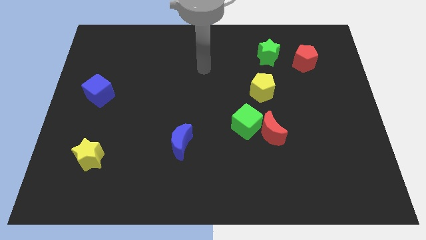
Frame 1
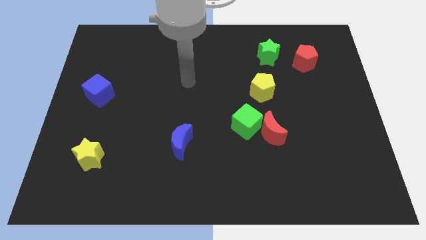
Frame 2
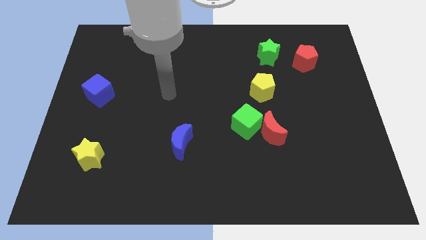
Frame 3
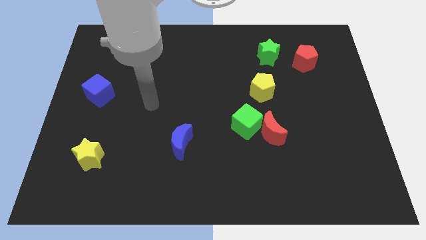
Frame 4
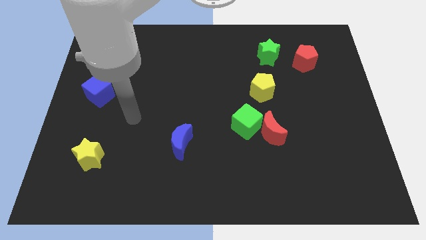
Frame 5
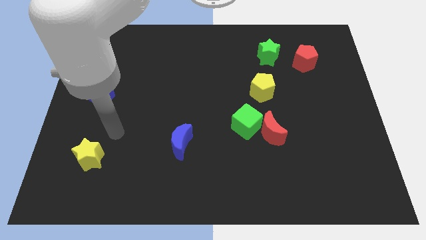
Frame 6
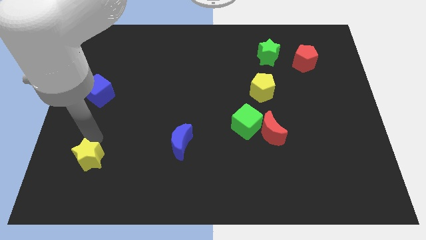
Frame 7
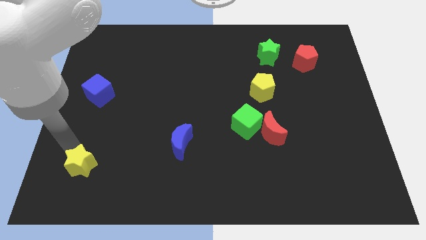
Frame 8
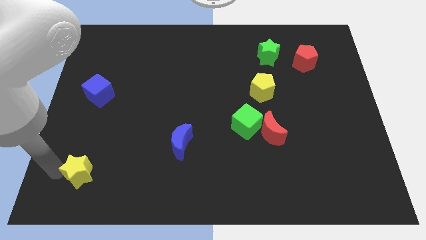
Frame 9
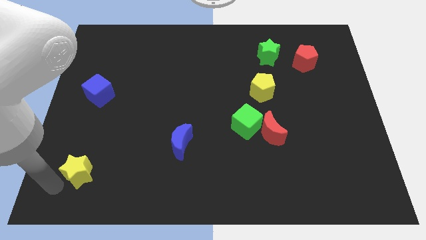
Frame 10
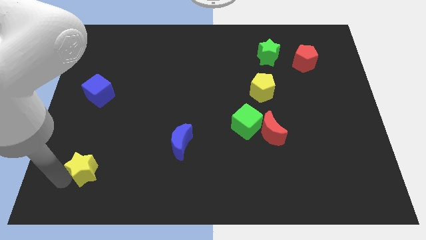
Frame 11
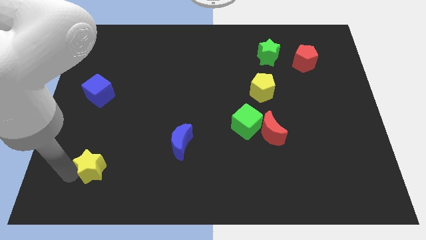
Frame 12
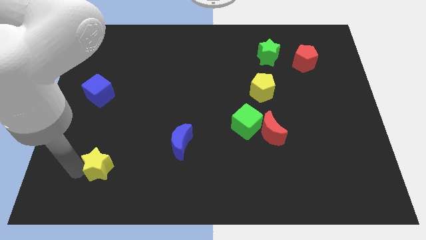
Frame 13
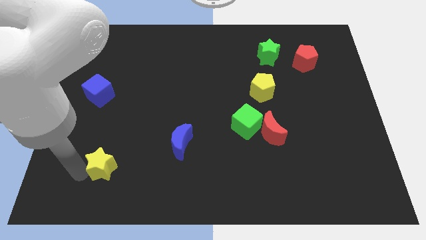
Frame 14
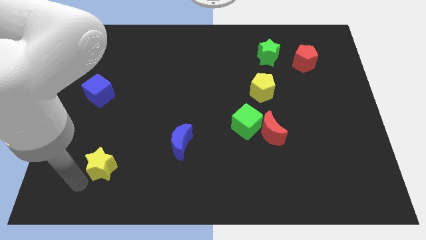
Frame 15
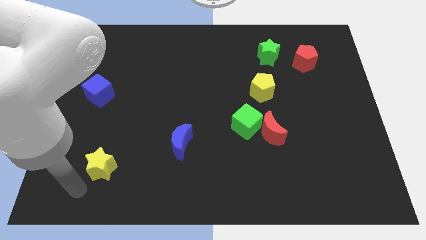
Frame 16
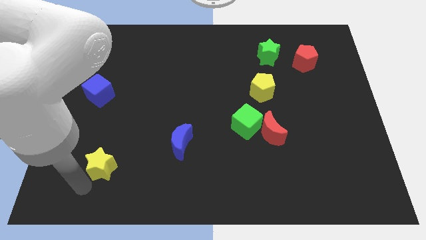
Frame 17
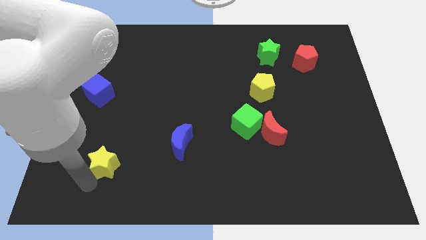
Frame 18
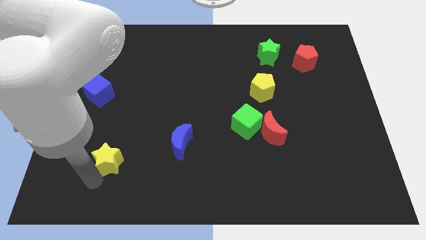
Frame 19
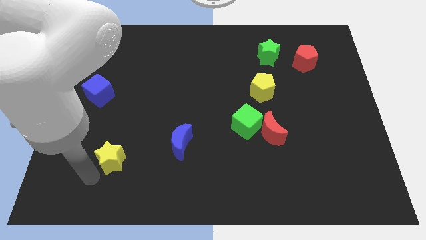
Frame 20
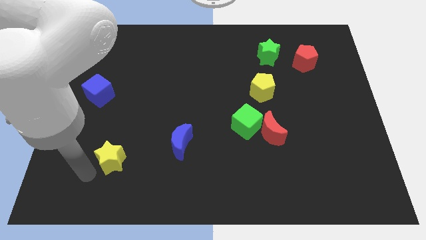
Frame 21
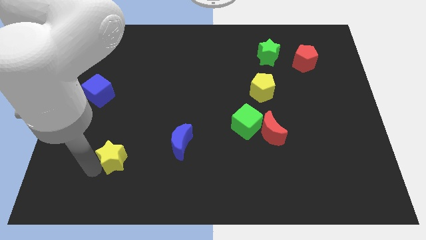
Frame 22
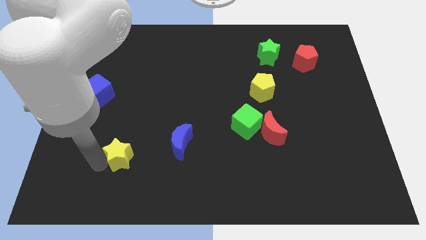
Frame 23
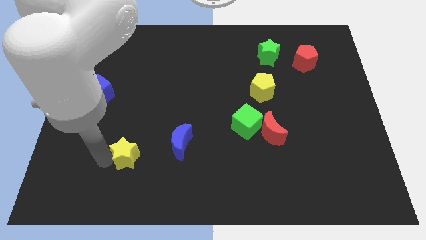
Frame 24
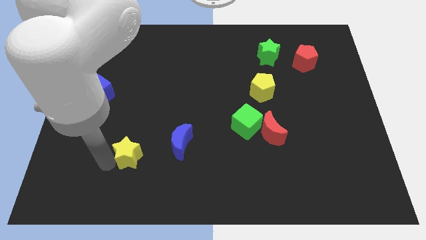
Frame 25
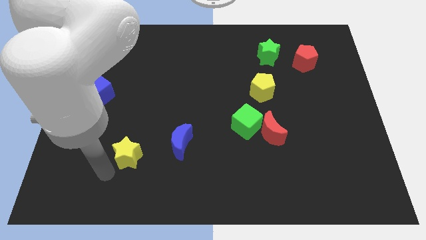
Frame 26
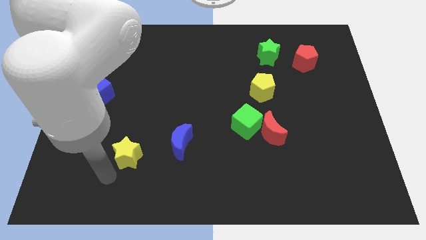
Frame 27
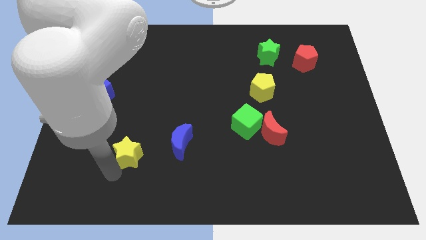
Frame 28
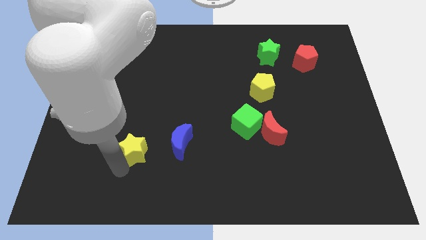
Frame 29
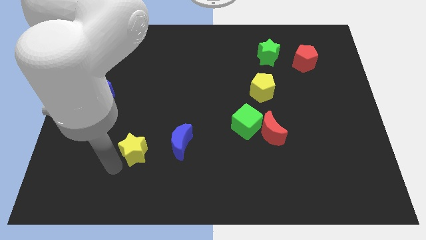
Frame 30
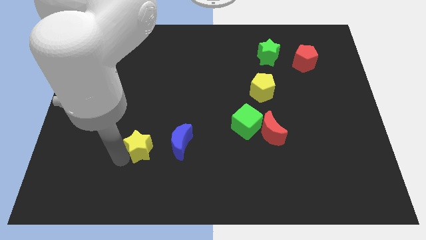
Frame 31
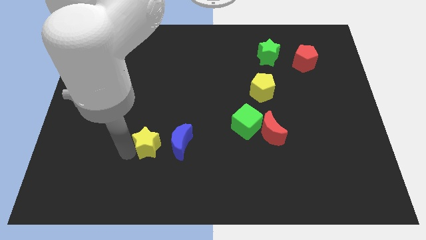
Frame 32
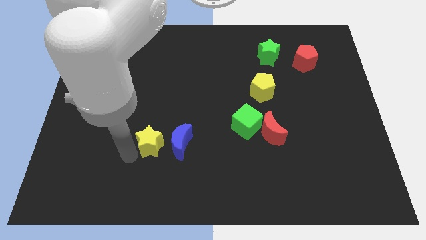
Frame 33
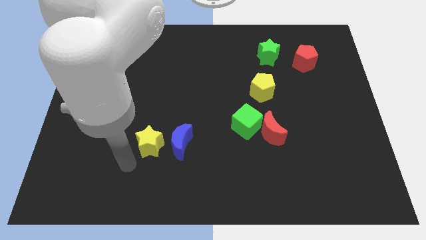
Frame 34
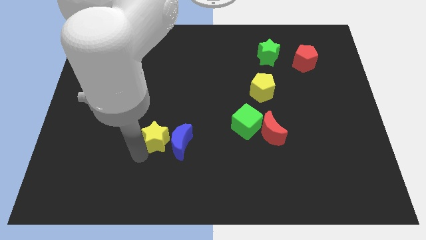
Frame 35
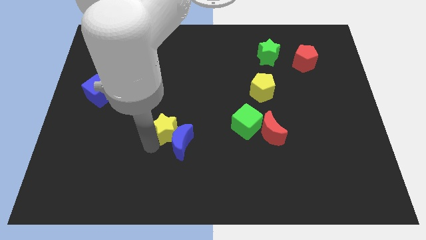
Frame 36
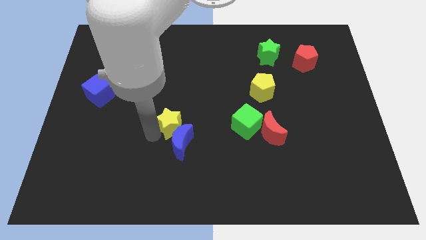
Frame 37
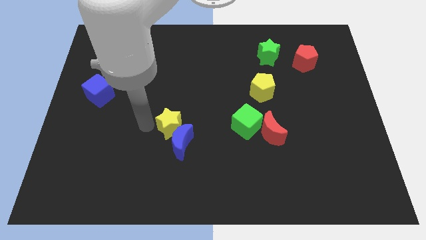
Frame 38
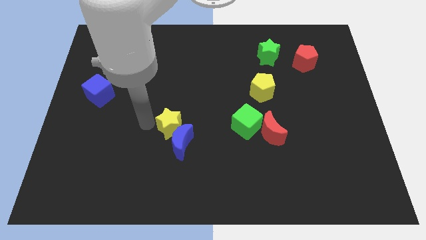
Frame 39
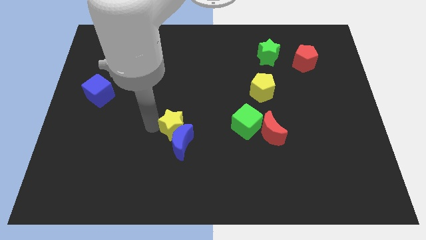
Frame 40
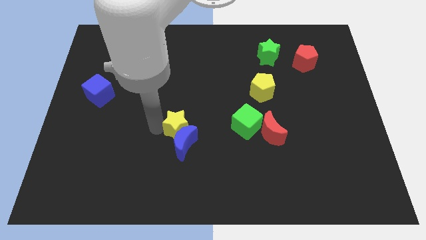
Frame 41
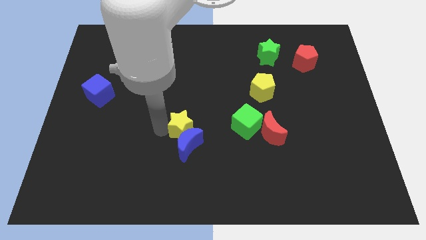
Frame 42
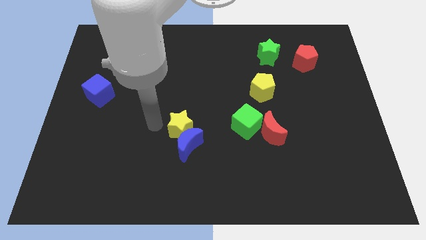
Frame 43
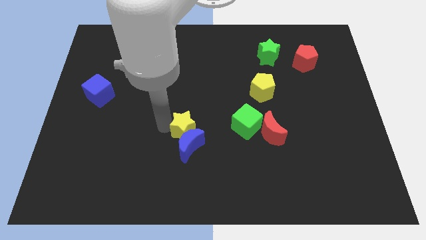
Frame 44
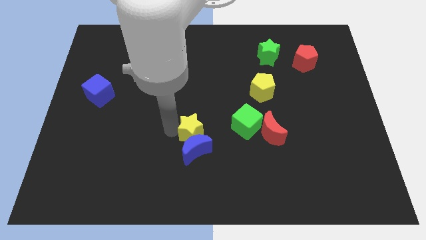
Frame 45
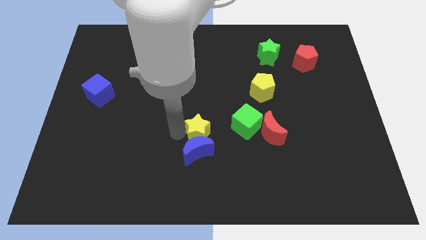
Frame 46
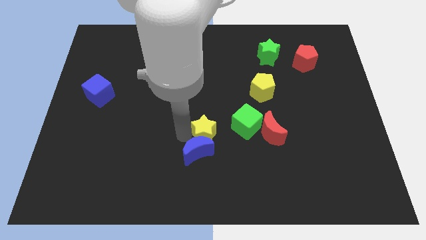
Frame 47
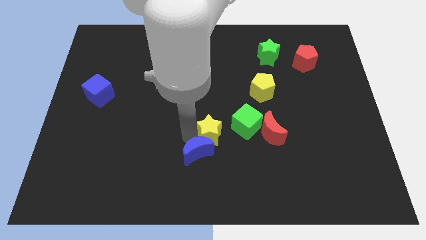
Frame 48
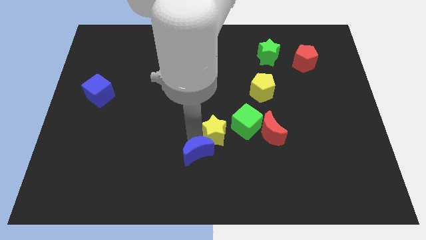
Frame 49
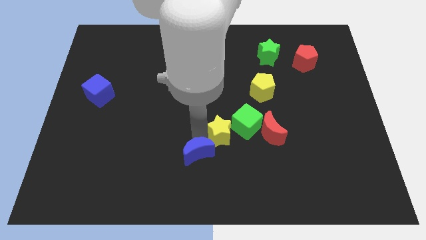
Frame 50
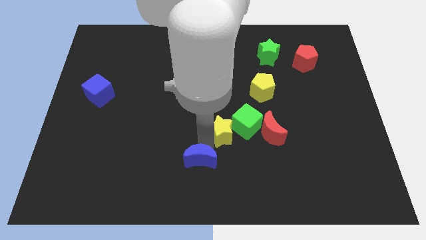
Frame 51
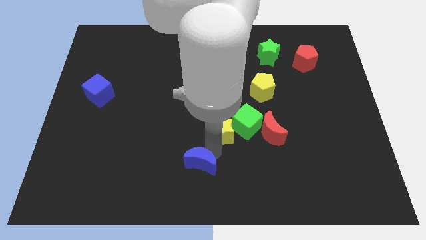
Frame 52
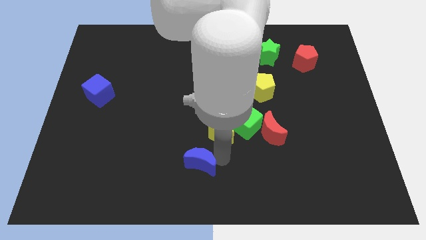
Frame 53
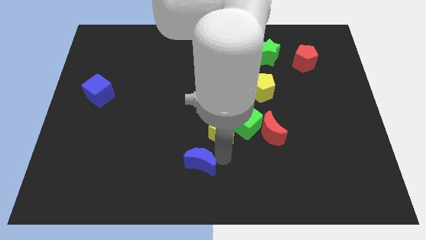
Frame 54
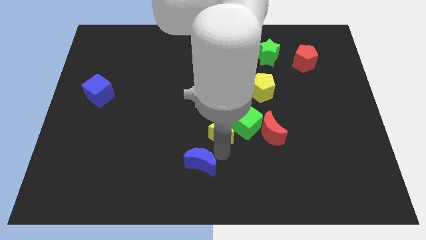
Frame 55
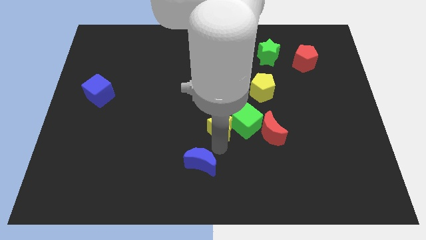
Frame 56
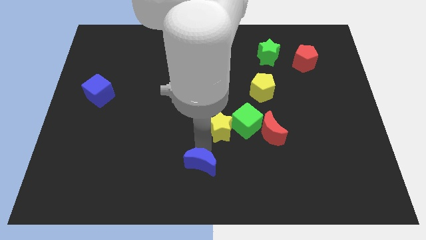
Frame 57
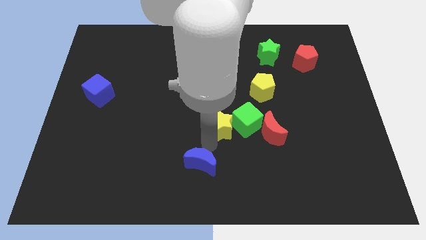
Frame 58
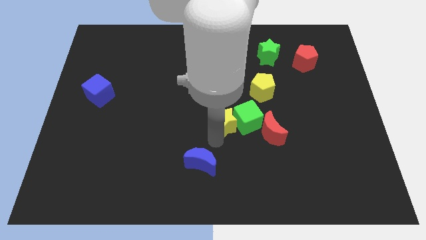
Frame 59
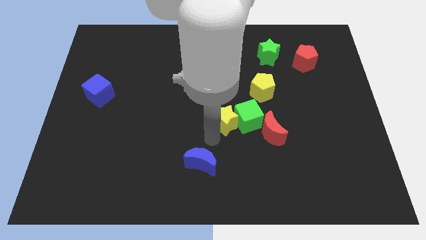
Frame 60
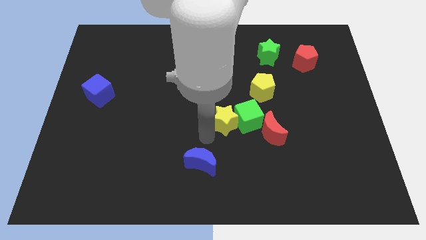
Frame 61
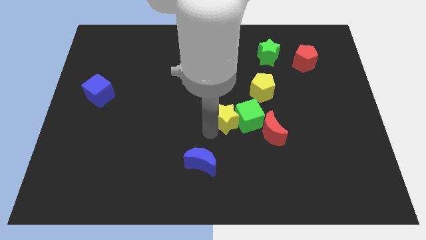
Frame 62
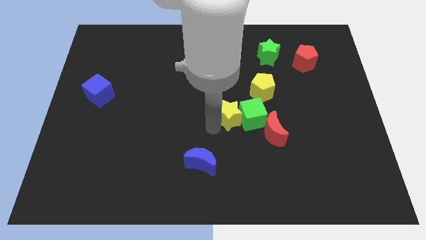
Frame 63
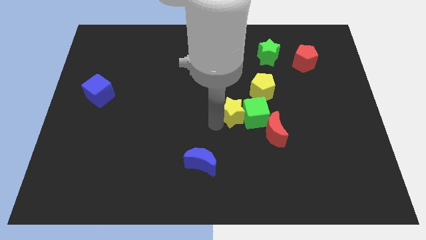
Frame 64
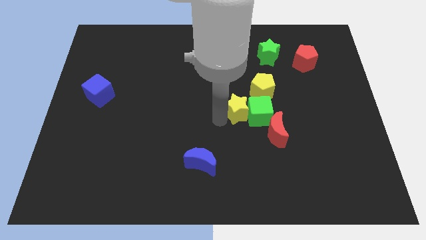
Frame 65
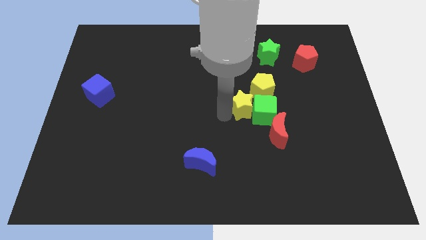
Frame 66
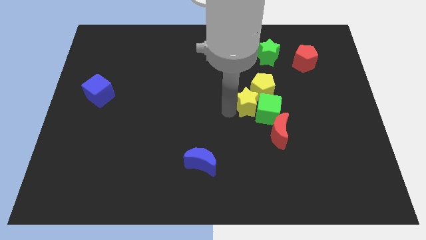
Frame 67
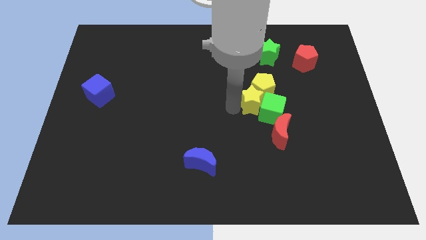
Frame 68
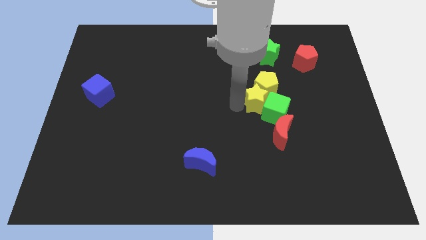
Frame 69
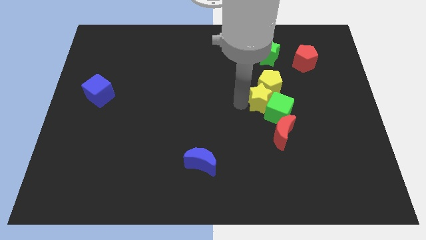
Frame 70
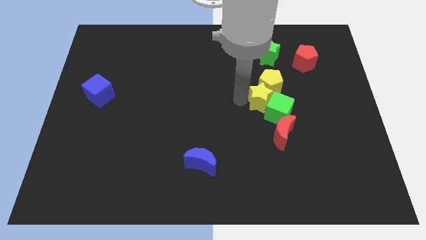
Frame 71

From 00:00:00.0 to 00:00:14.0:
push the yellow star to the bottom of the green star
